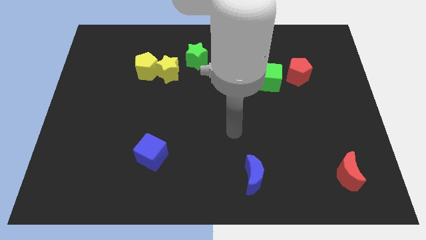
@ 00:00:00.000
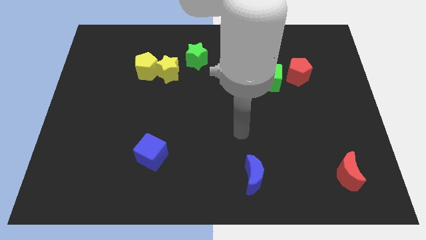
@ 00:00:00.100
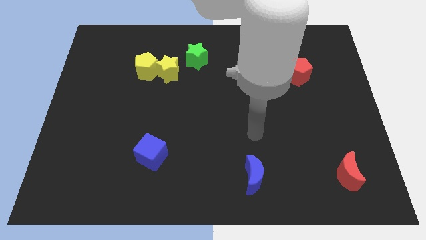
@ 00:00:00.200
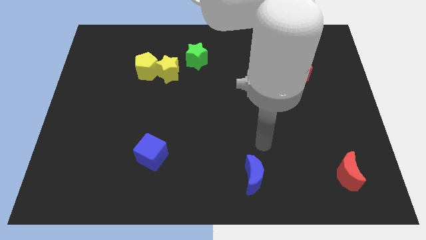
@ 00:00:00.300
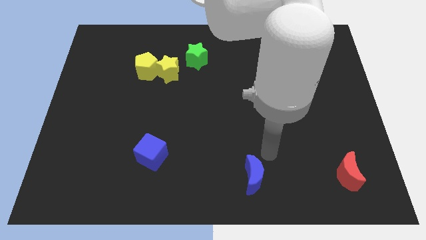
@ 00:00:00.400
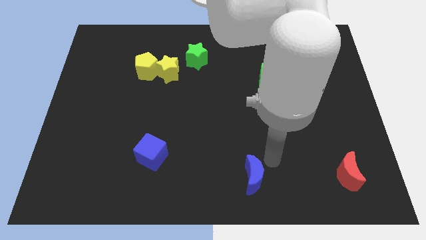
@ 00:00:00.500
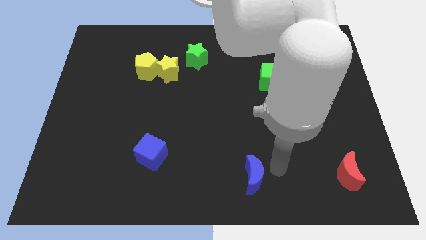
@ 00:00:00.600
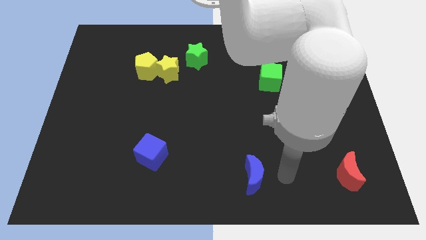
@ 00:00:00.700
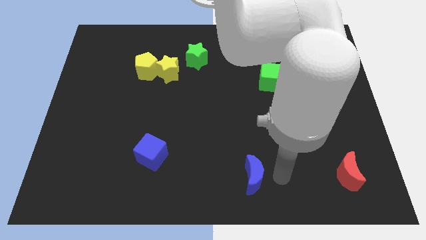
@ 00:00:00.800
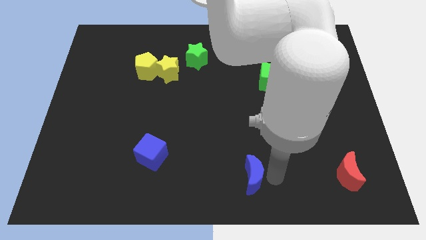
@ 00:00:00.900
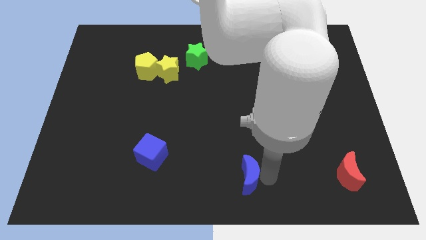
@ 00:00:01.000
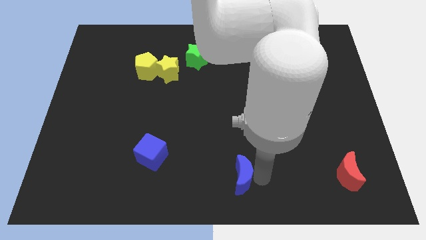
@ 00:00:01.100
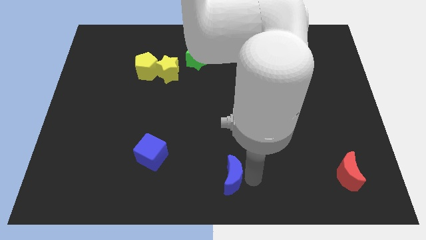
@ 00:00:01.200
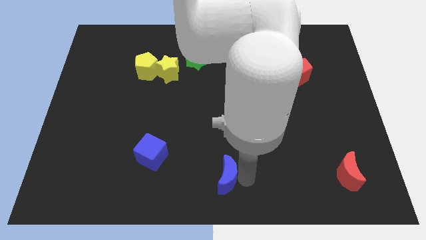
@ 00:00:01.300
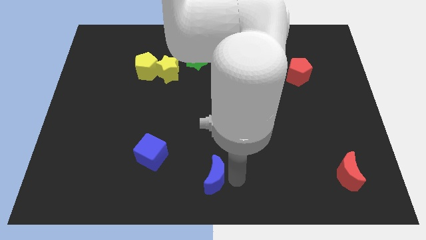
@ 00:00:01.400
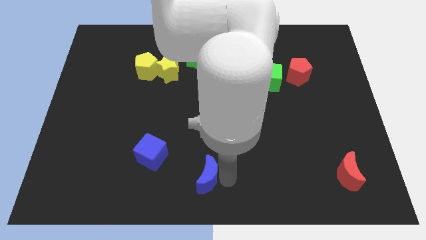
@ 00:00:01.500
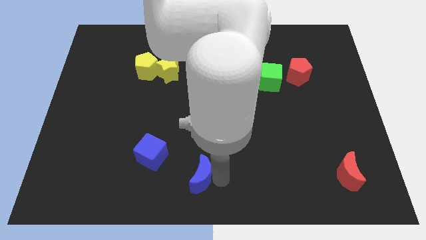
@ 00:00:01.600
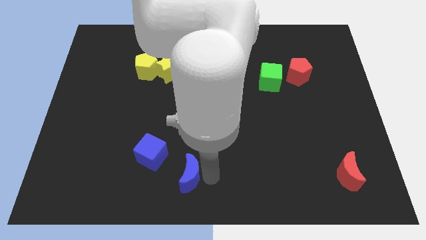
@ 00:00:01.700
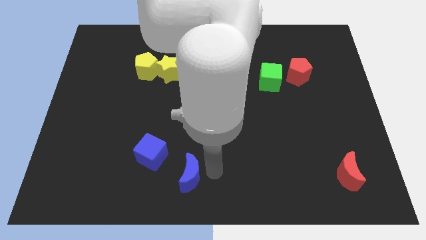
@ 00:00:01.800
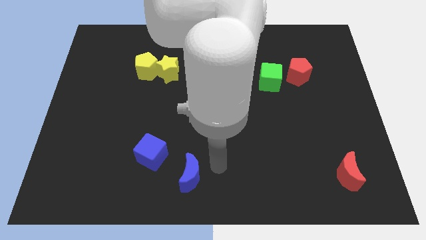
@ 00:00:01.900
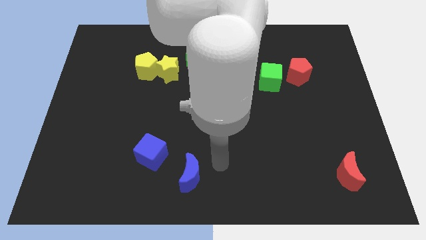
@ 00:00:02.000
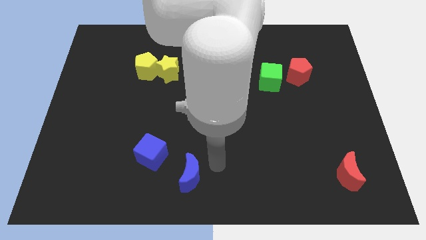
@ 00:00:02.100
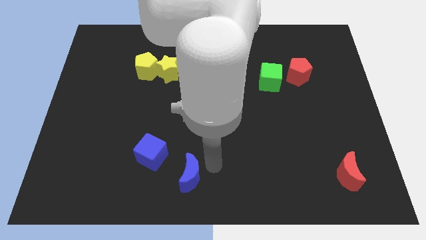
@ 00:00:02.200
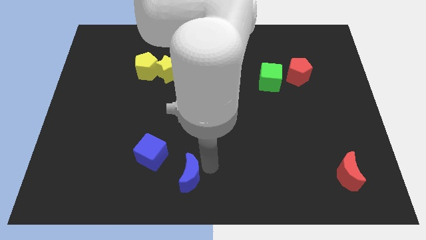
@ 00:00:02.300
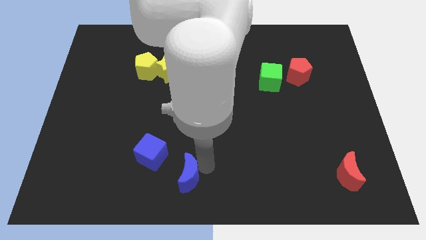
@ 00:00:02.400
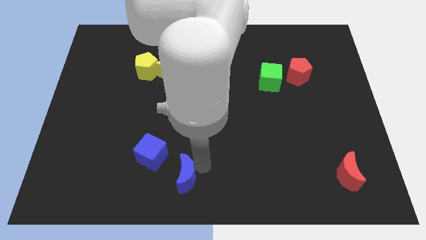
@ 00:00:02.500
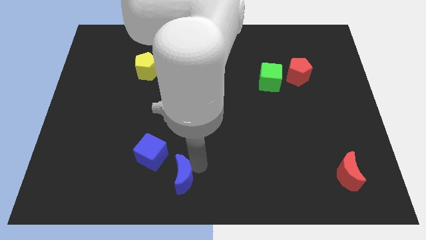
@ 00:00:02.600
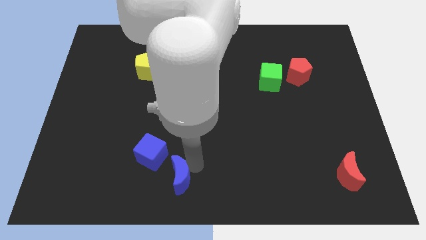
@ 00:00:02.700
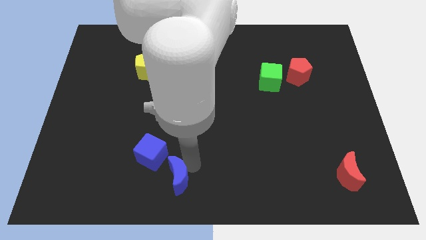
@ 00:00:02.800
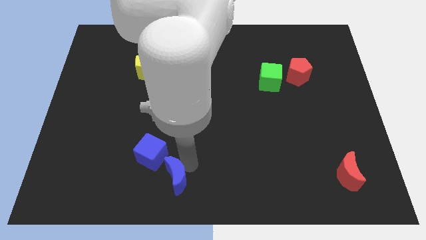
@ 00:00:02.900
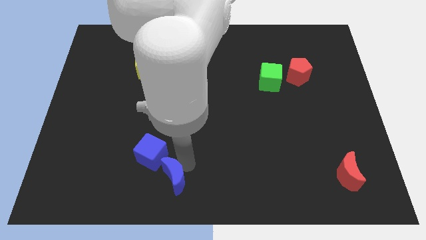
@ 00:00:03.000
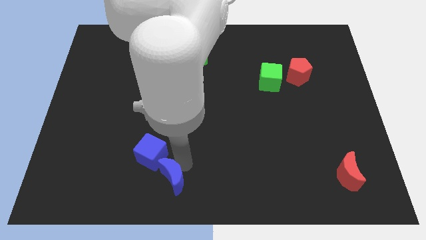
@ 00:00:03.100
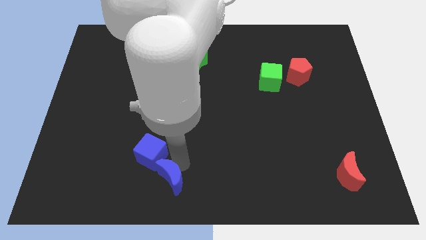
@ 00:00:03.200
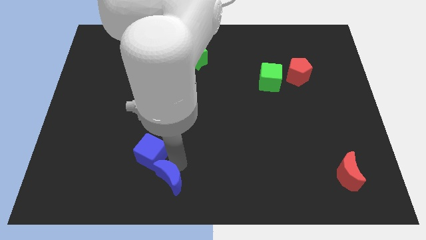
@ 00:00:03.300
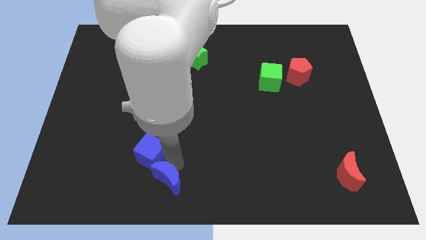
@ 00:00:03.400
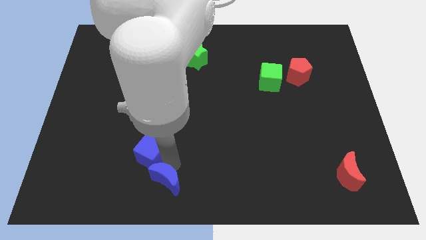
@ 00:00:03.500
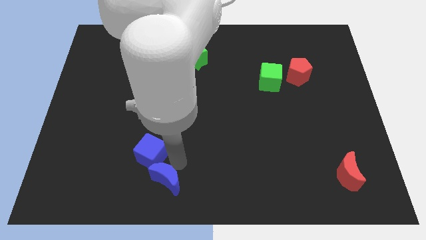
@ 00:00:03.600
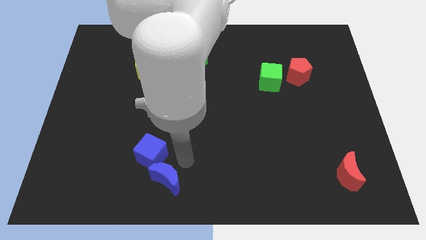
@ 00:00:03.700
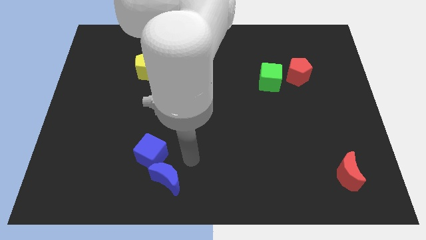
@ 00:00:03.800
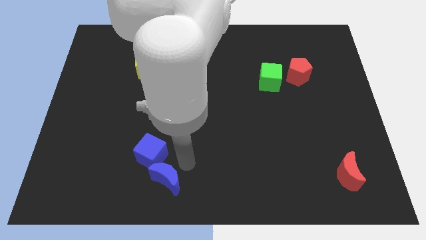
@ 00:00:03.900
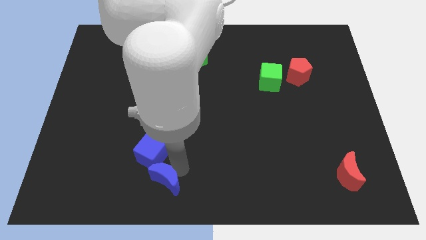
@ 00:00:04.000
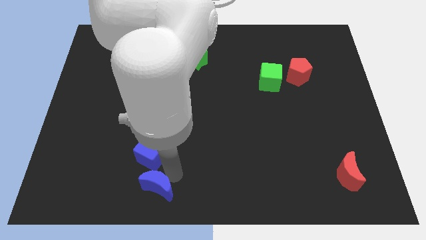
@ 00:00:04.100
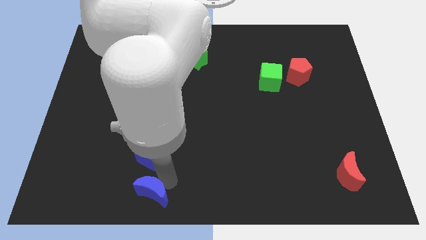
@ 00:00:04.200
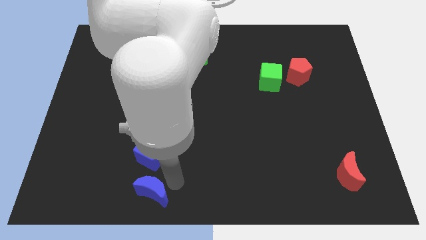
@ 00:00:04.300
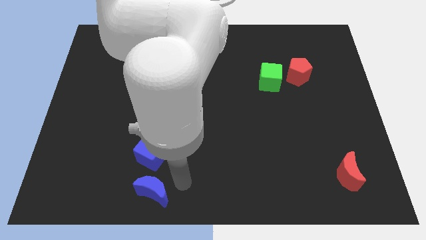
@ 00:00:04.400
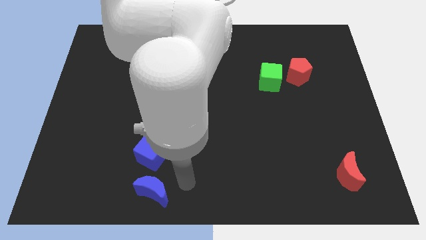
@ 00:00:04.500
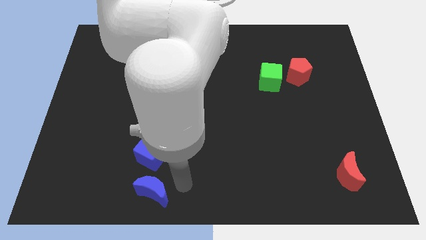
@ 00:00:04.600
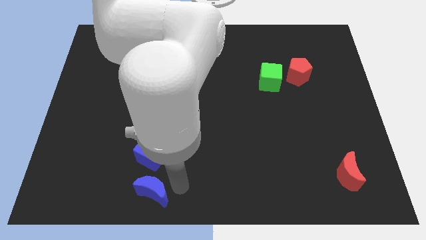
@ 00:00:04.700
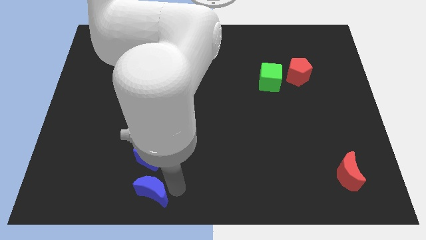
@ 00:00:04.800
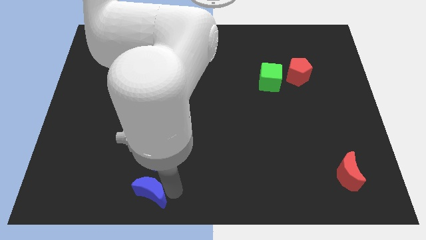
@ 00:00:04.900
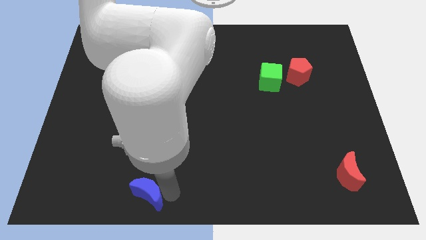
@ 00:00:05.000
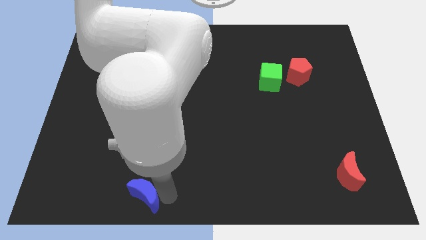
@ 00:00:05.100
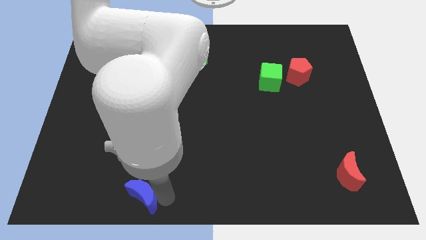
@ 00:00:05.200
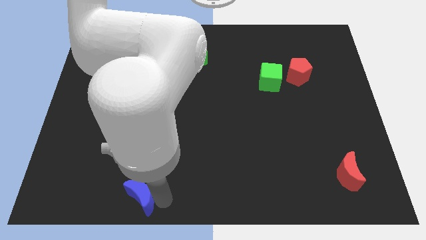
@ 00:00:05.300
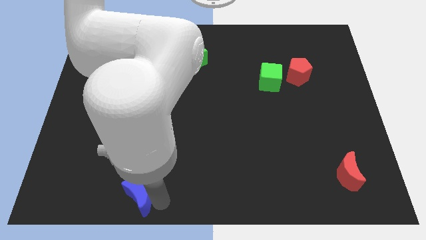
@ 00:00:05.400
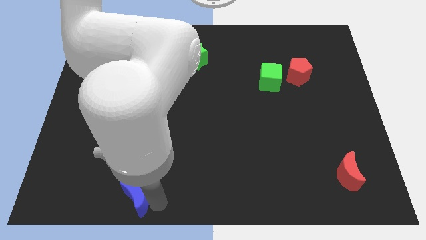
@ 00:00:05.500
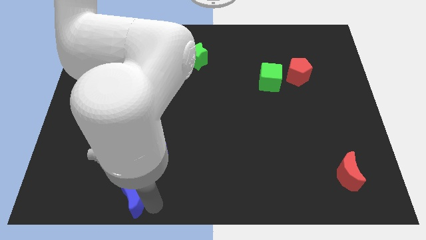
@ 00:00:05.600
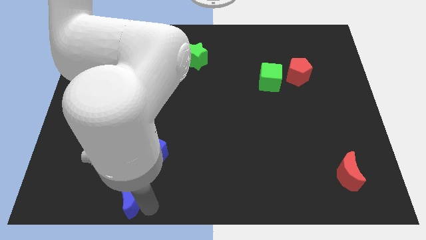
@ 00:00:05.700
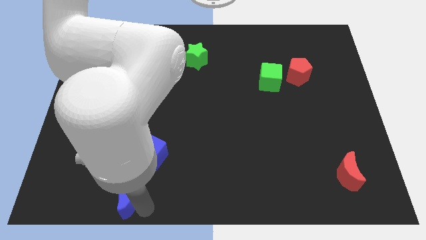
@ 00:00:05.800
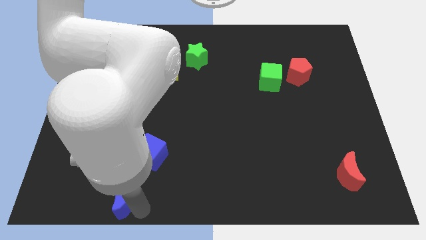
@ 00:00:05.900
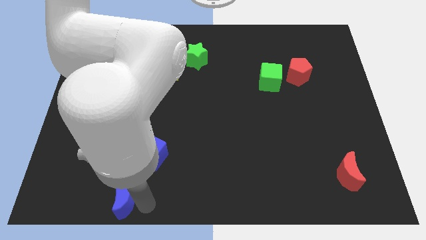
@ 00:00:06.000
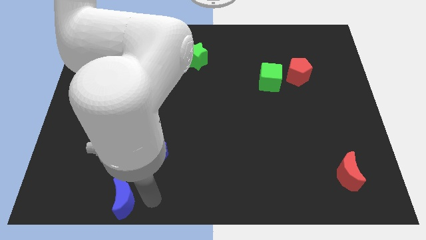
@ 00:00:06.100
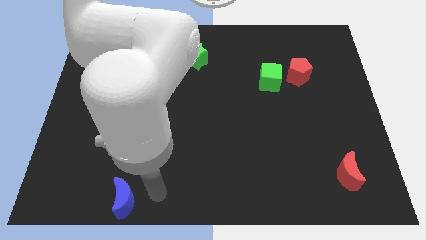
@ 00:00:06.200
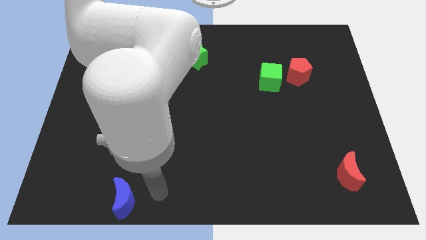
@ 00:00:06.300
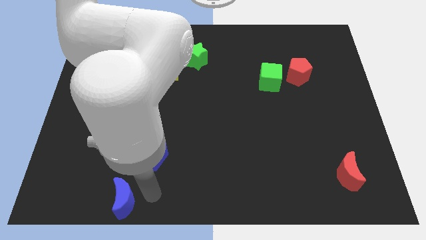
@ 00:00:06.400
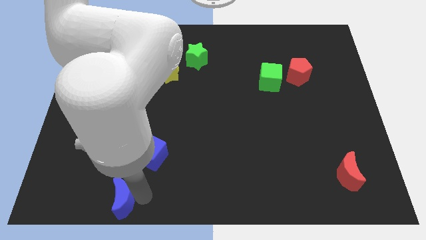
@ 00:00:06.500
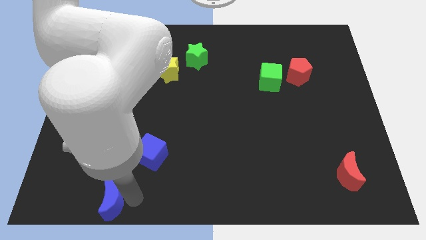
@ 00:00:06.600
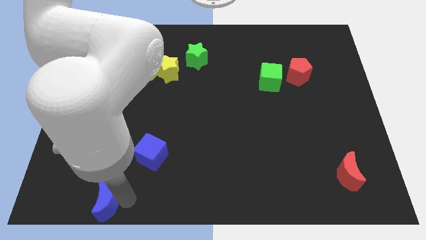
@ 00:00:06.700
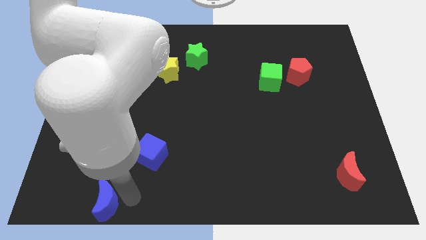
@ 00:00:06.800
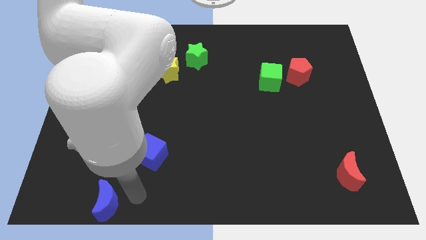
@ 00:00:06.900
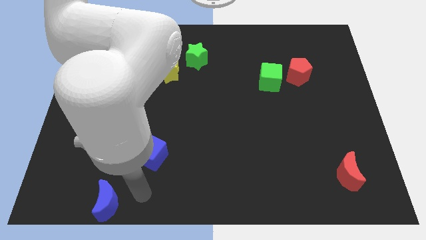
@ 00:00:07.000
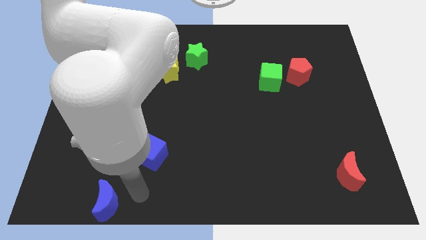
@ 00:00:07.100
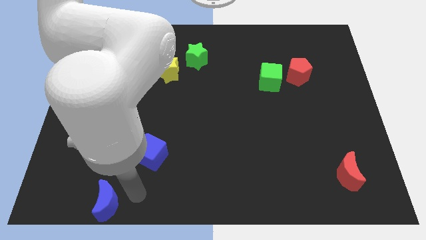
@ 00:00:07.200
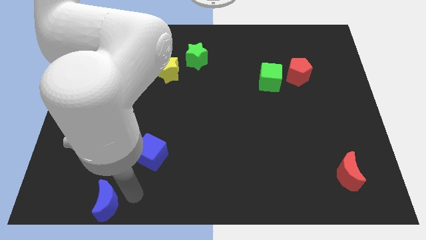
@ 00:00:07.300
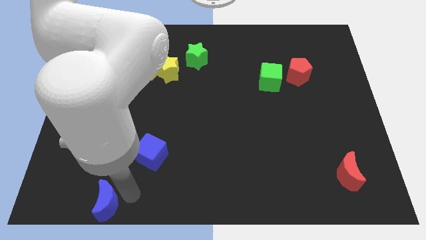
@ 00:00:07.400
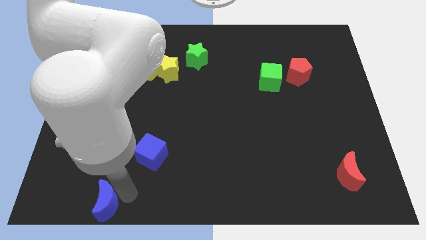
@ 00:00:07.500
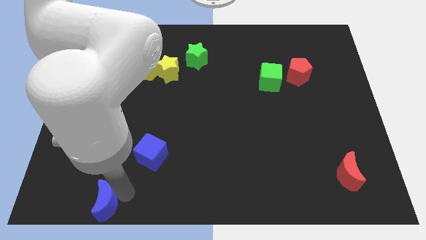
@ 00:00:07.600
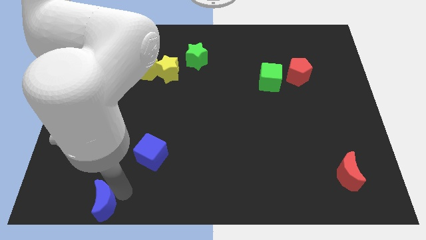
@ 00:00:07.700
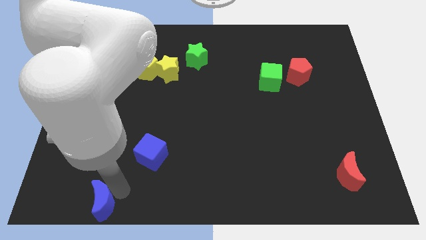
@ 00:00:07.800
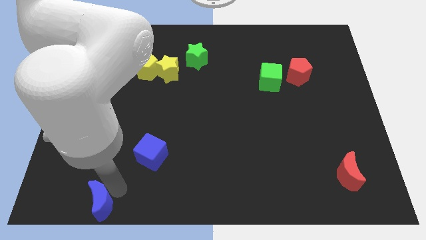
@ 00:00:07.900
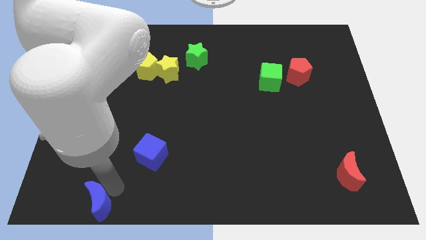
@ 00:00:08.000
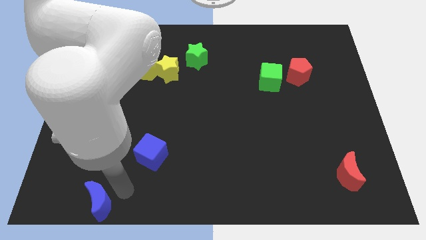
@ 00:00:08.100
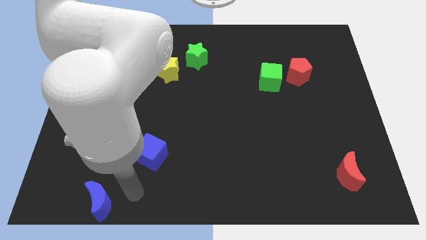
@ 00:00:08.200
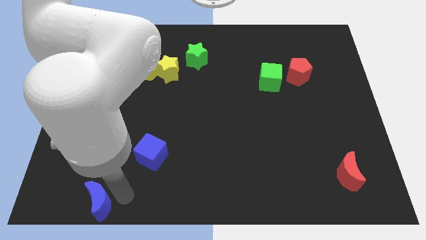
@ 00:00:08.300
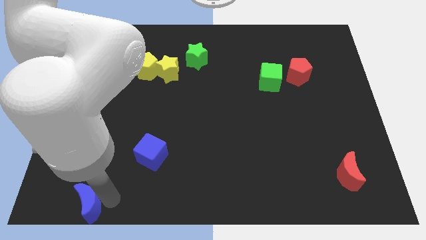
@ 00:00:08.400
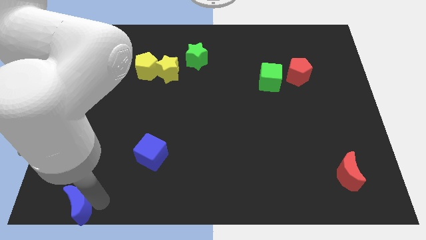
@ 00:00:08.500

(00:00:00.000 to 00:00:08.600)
move the blue moon to the bottom left of the board
